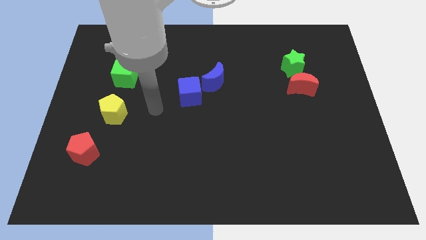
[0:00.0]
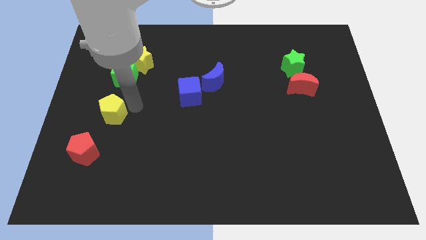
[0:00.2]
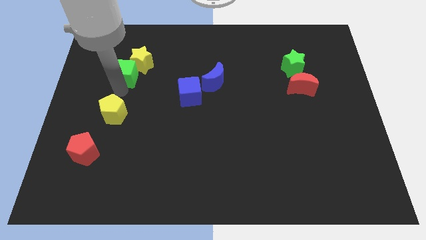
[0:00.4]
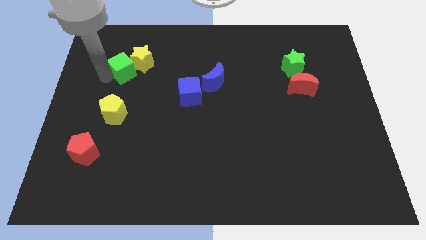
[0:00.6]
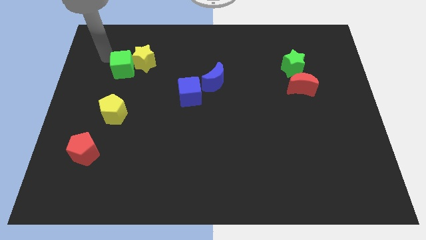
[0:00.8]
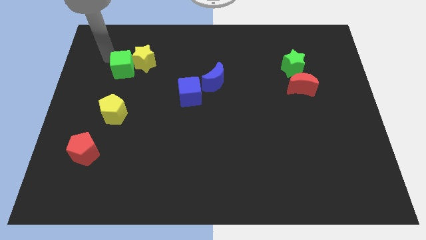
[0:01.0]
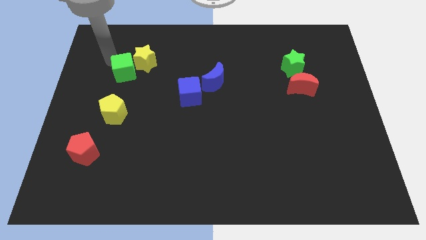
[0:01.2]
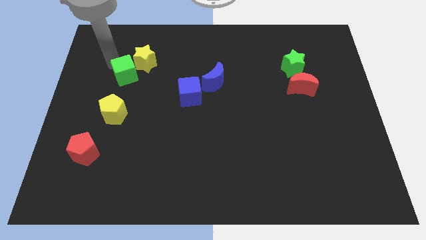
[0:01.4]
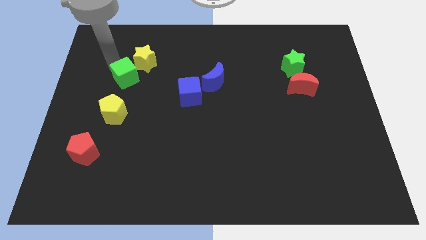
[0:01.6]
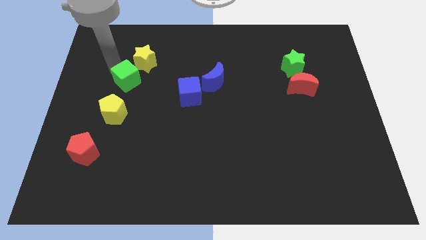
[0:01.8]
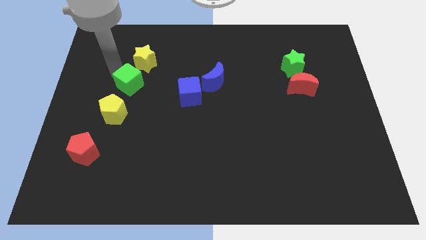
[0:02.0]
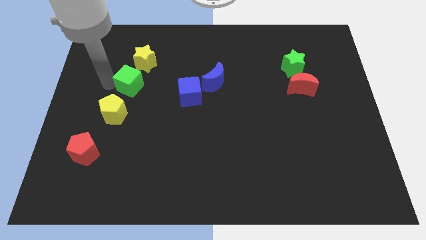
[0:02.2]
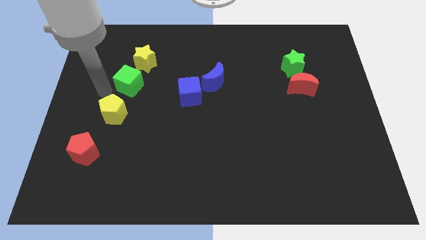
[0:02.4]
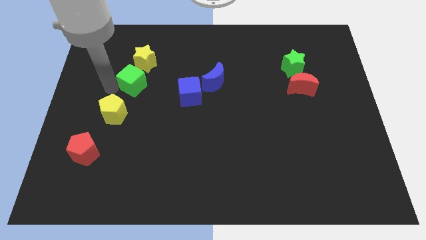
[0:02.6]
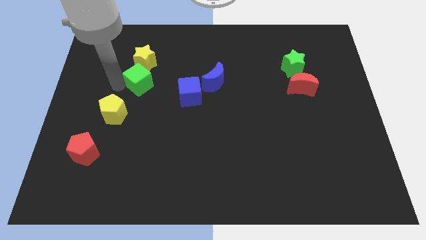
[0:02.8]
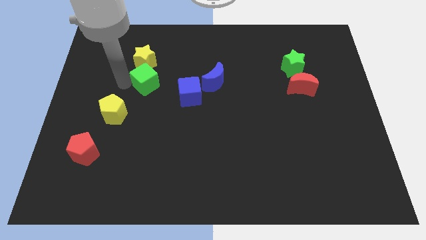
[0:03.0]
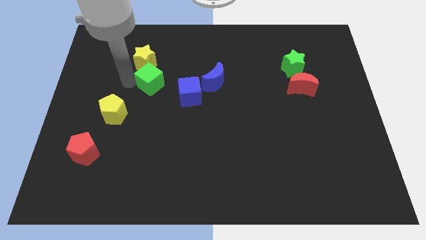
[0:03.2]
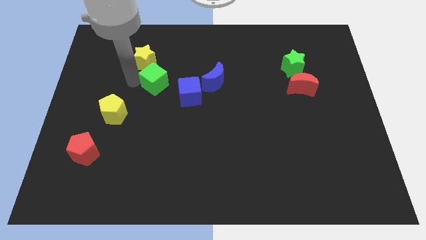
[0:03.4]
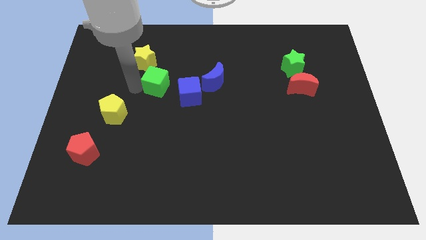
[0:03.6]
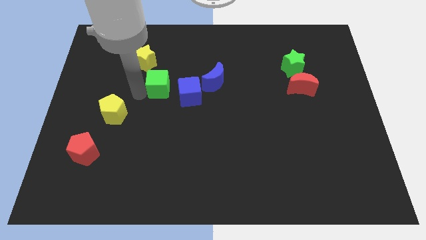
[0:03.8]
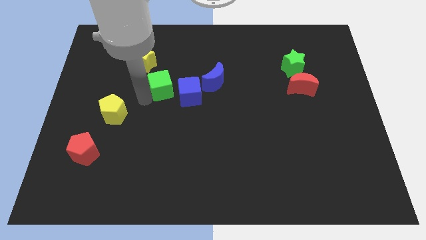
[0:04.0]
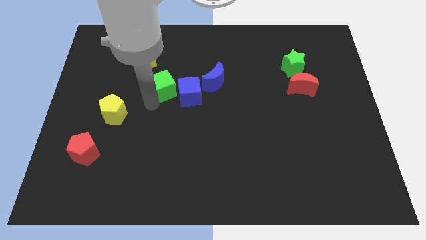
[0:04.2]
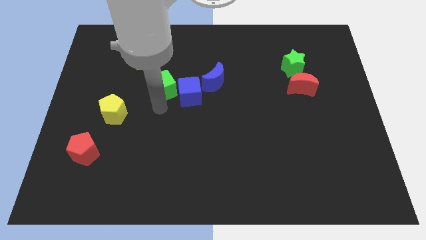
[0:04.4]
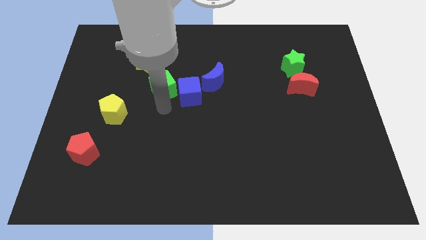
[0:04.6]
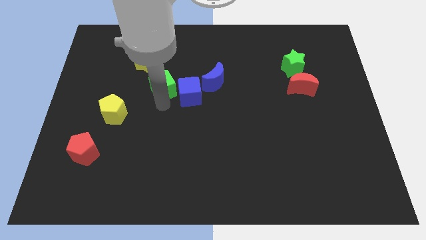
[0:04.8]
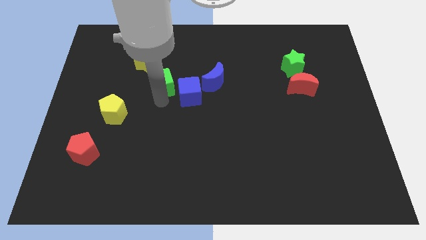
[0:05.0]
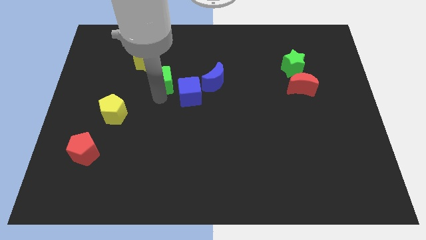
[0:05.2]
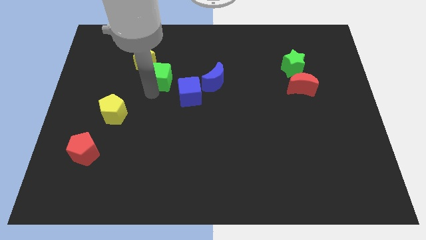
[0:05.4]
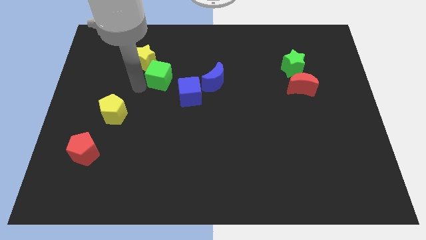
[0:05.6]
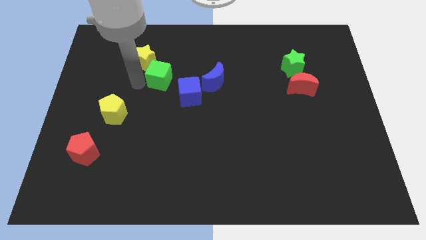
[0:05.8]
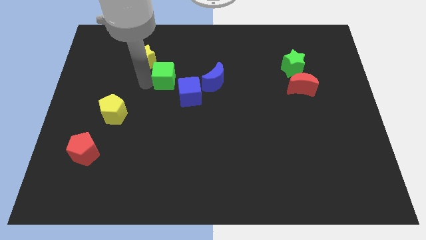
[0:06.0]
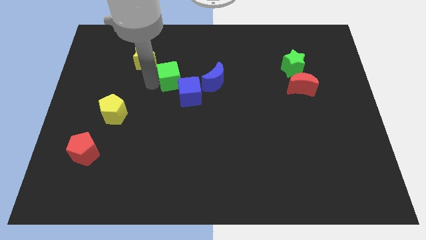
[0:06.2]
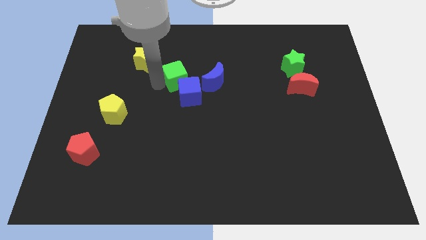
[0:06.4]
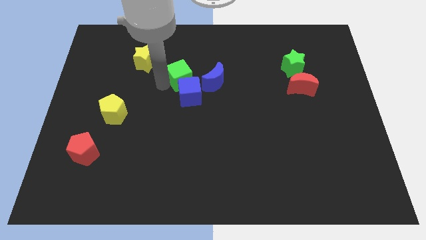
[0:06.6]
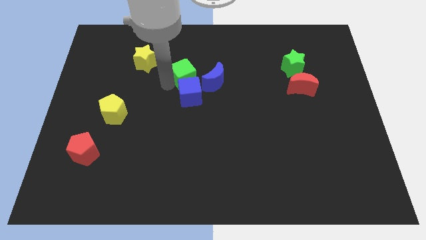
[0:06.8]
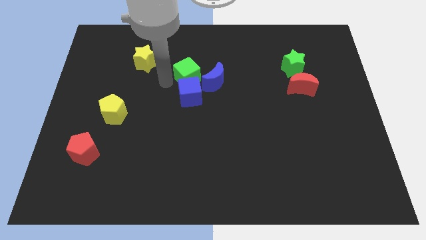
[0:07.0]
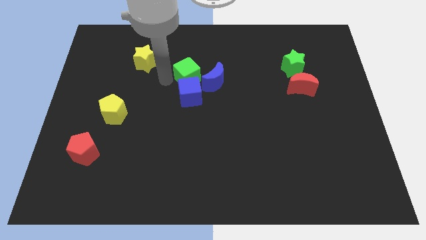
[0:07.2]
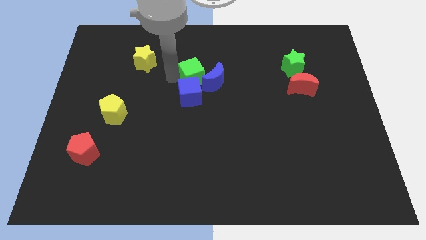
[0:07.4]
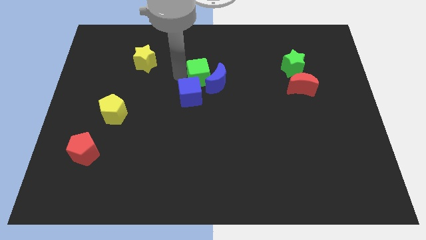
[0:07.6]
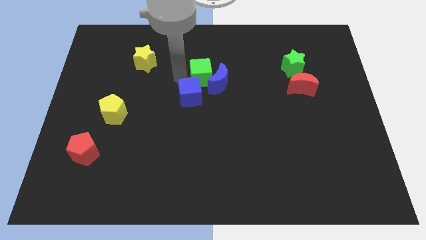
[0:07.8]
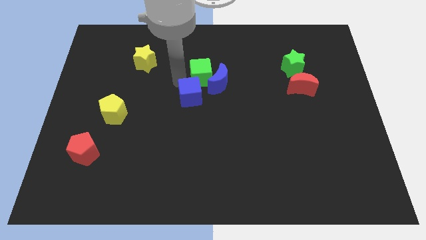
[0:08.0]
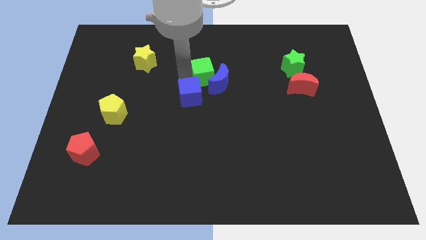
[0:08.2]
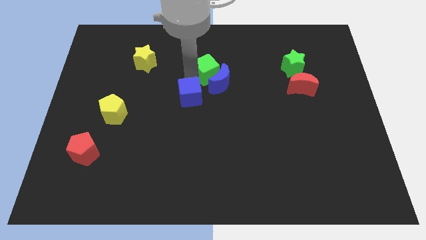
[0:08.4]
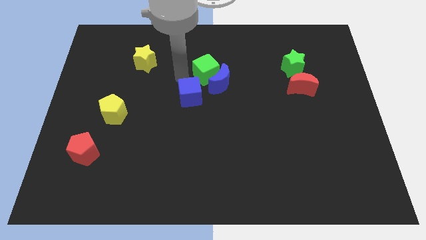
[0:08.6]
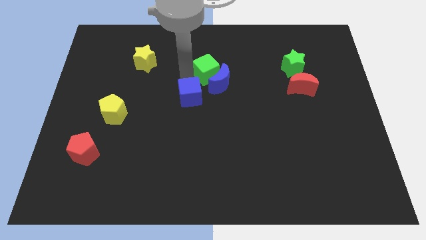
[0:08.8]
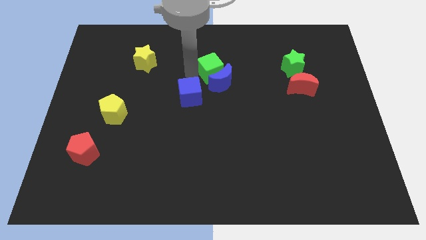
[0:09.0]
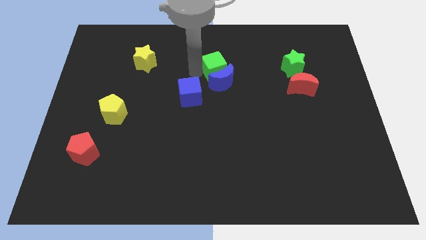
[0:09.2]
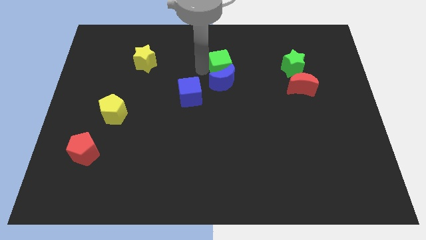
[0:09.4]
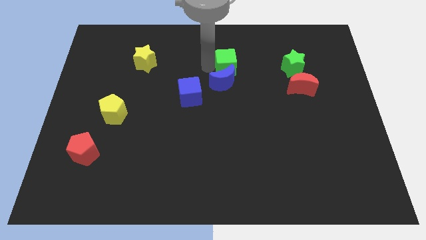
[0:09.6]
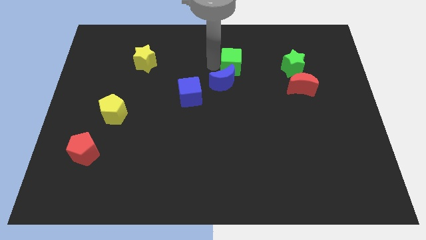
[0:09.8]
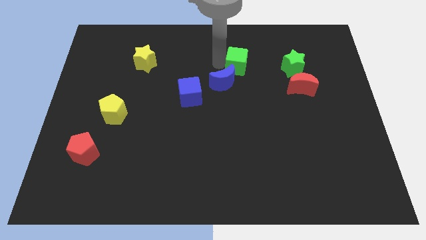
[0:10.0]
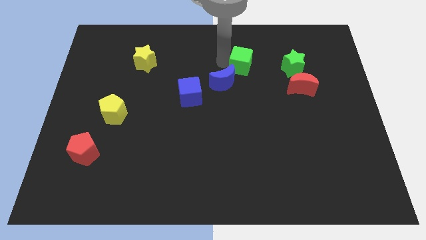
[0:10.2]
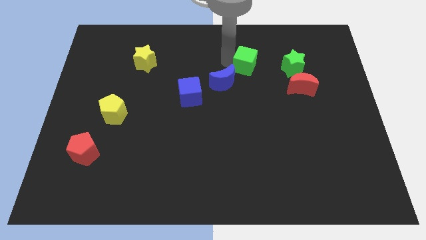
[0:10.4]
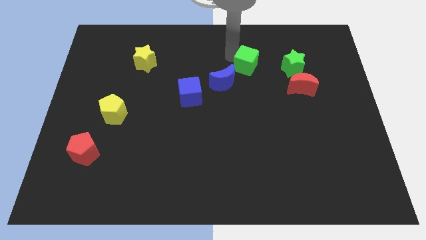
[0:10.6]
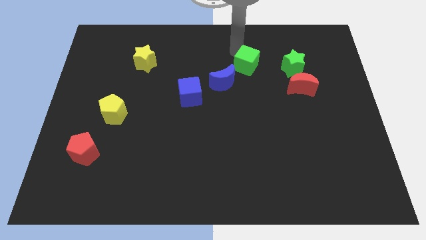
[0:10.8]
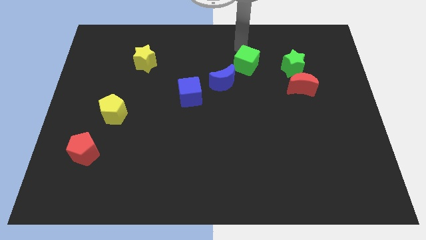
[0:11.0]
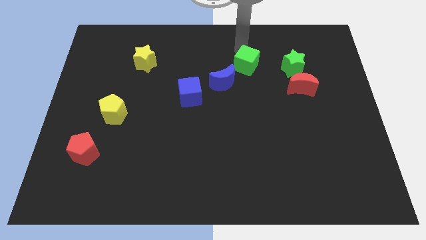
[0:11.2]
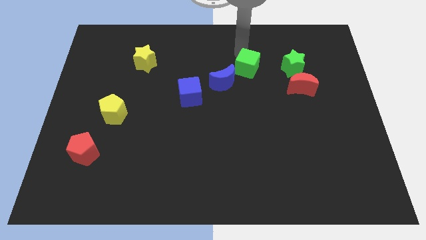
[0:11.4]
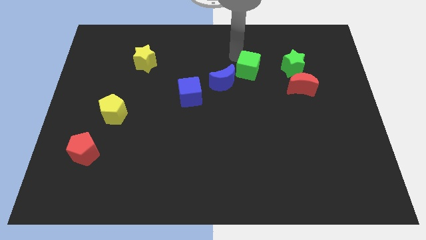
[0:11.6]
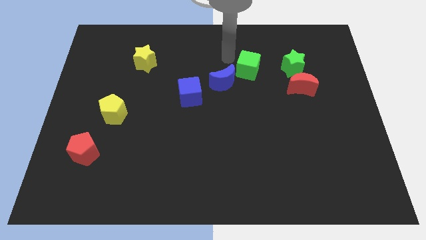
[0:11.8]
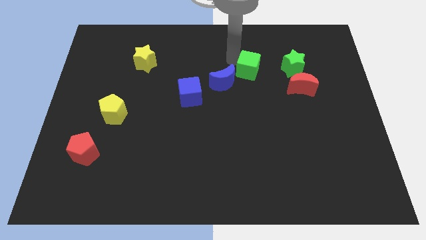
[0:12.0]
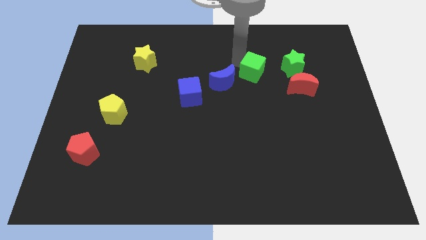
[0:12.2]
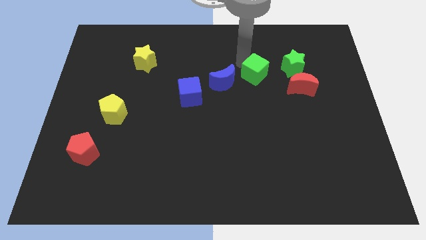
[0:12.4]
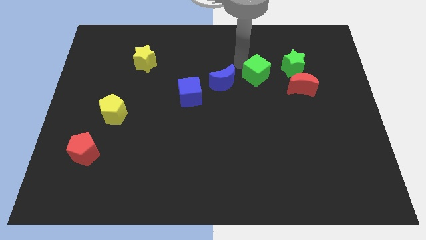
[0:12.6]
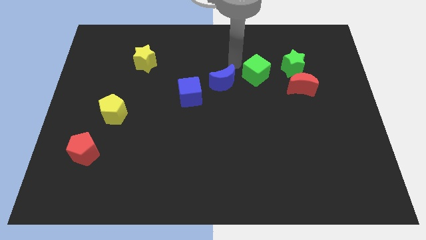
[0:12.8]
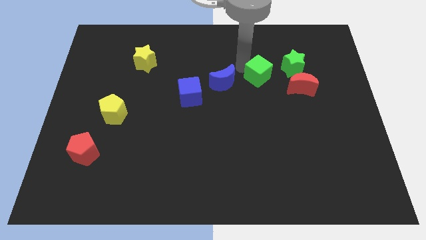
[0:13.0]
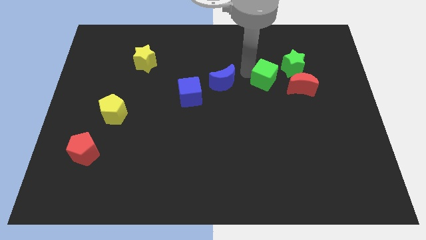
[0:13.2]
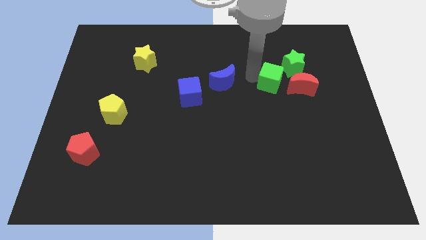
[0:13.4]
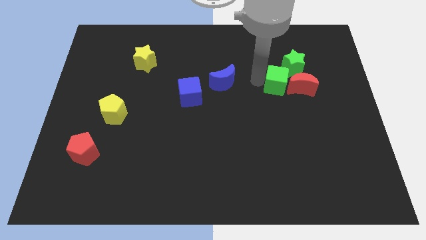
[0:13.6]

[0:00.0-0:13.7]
move the green cube towards the red moon

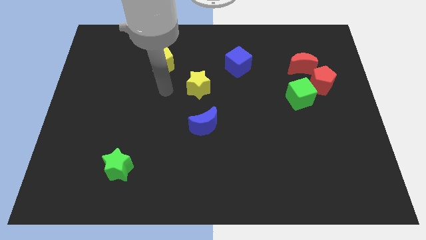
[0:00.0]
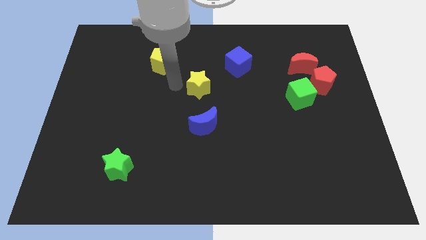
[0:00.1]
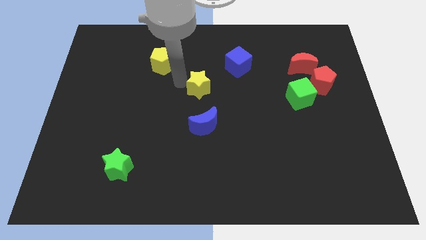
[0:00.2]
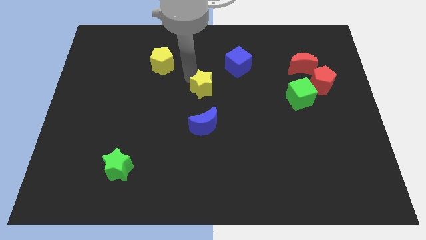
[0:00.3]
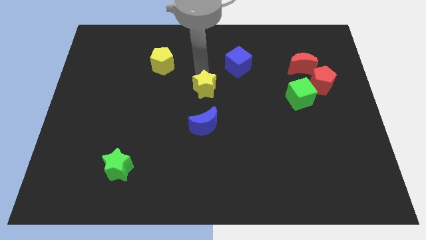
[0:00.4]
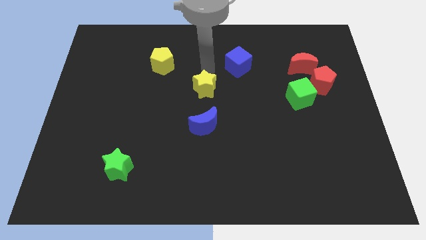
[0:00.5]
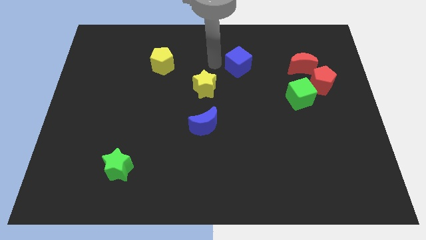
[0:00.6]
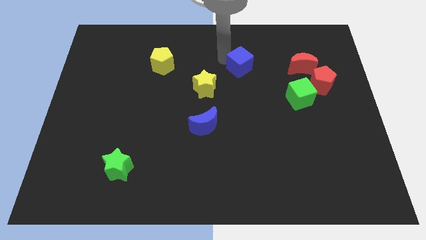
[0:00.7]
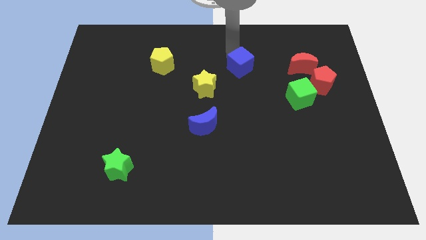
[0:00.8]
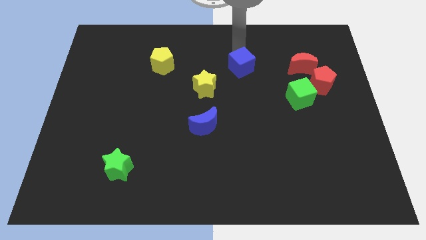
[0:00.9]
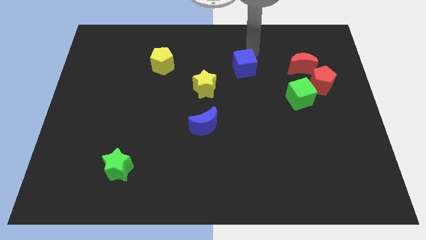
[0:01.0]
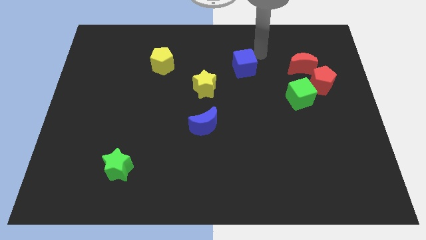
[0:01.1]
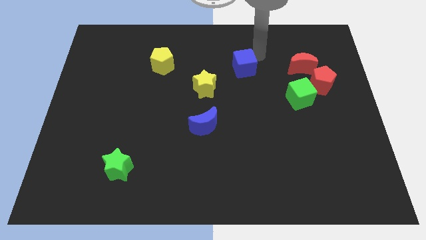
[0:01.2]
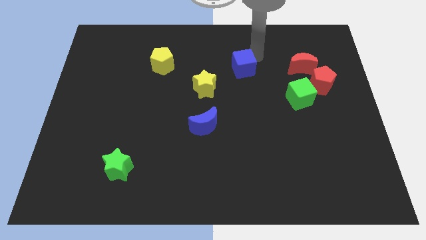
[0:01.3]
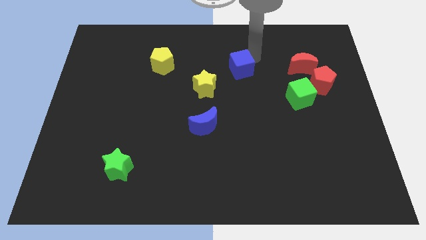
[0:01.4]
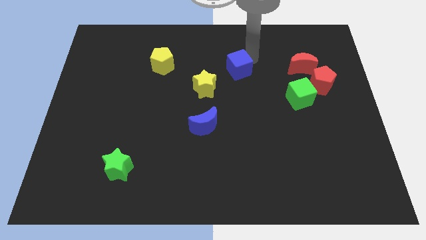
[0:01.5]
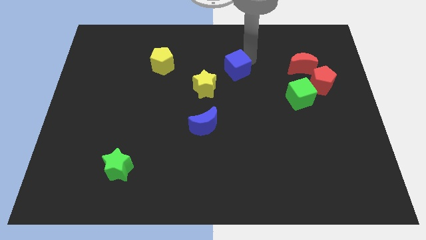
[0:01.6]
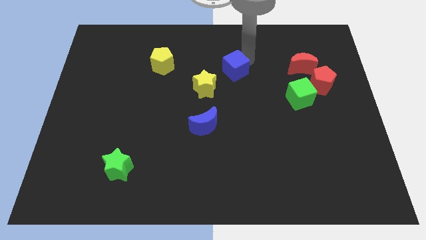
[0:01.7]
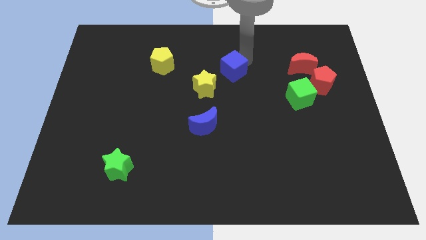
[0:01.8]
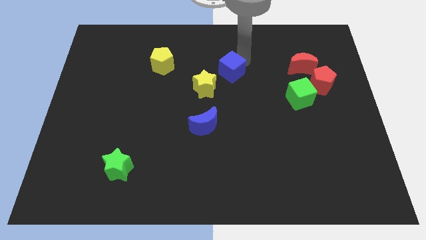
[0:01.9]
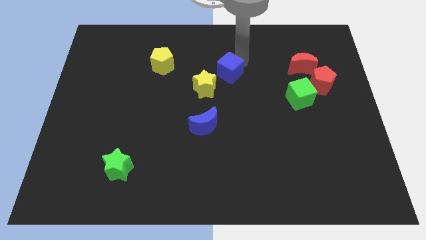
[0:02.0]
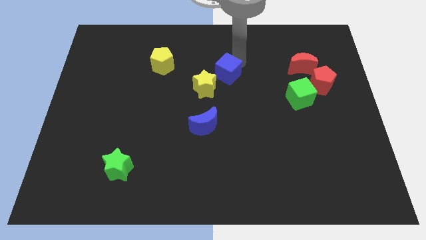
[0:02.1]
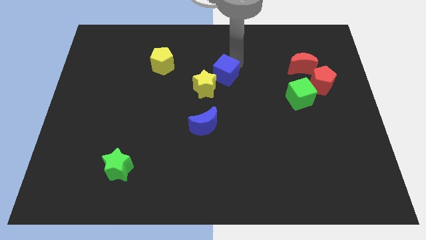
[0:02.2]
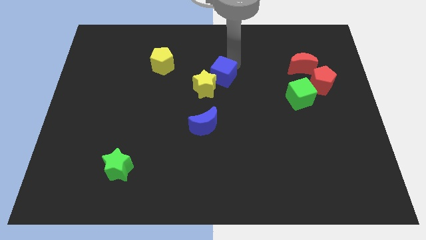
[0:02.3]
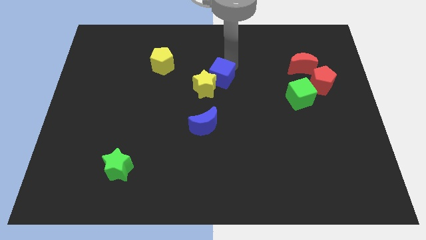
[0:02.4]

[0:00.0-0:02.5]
slide the blue cube towards the yellow star
